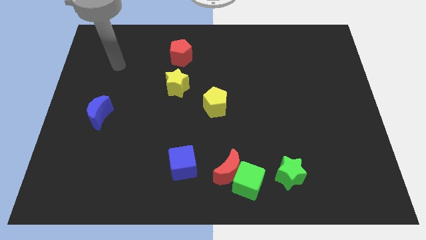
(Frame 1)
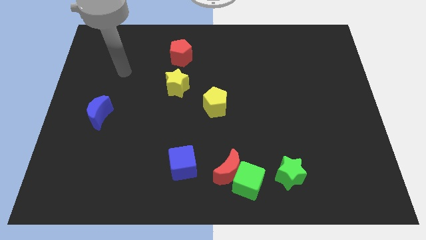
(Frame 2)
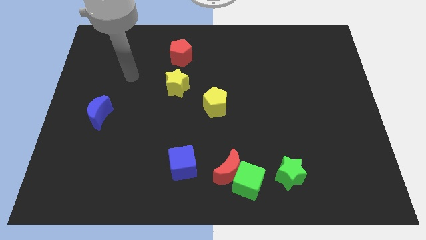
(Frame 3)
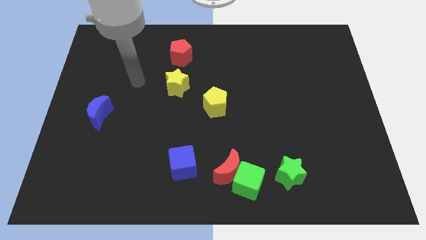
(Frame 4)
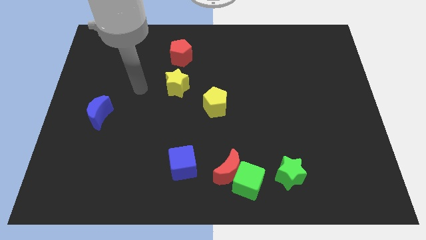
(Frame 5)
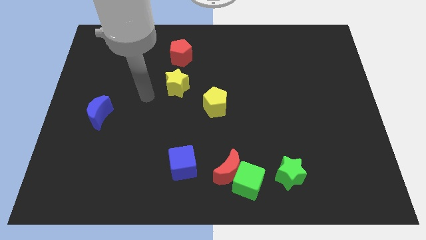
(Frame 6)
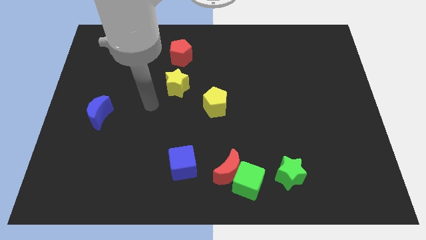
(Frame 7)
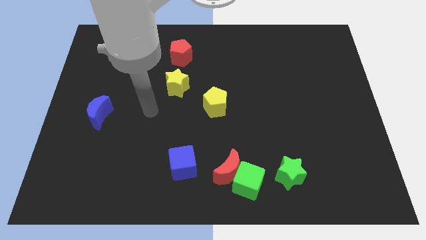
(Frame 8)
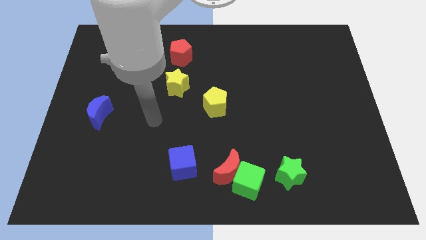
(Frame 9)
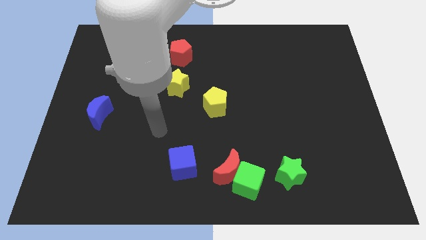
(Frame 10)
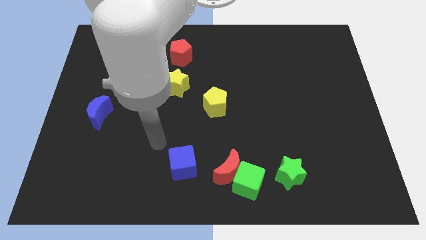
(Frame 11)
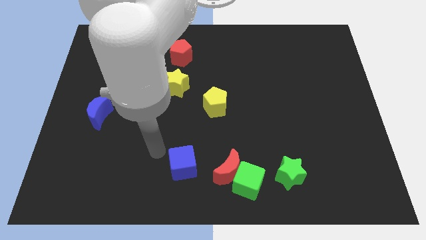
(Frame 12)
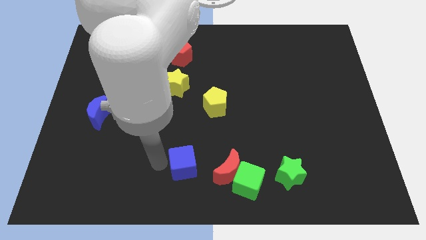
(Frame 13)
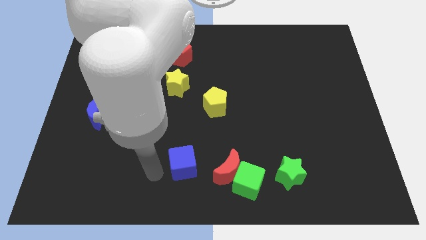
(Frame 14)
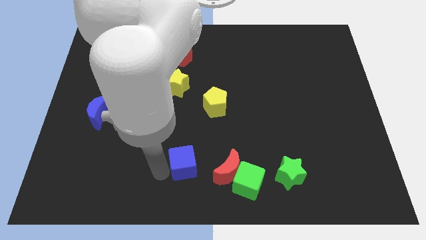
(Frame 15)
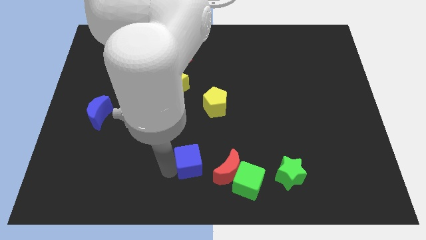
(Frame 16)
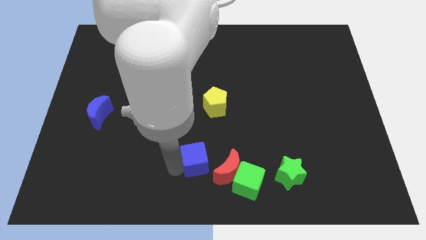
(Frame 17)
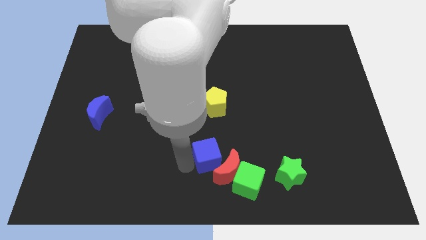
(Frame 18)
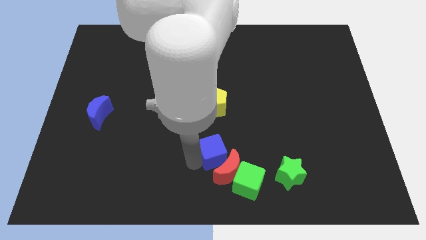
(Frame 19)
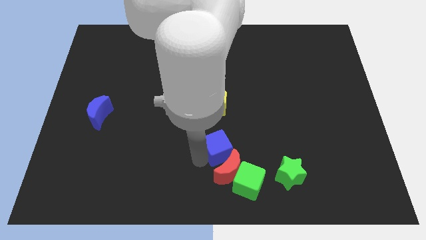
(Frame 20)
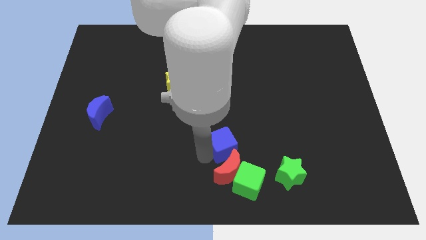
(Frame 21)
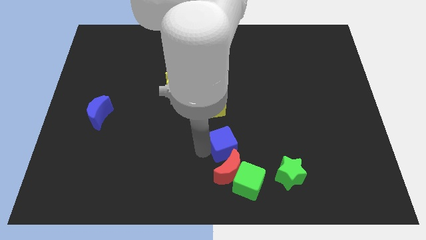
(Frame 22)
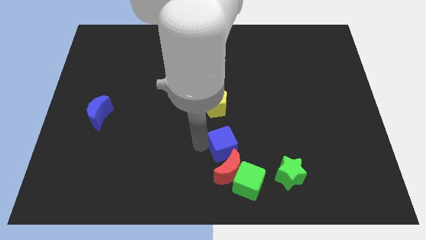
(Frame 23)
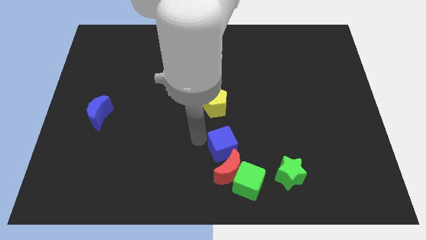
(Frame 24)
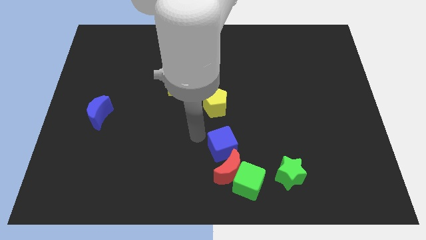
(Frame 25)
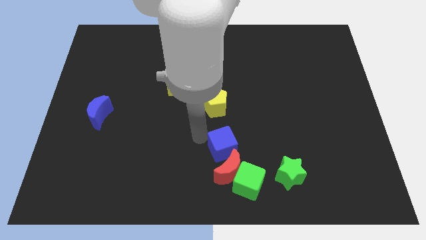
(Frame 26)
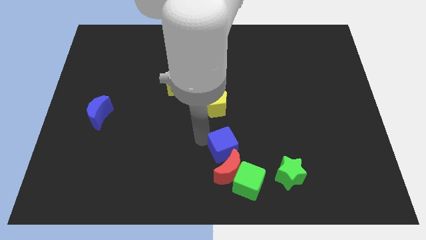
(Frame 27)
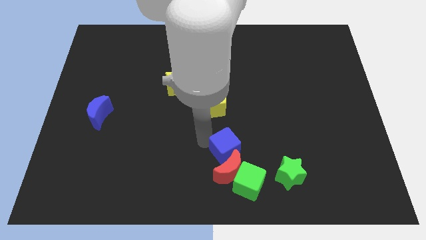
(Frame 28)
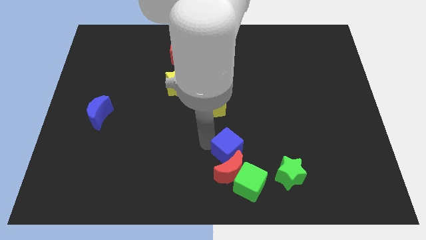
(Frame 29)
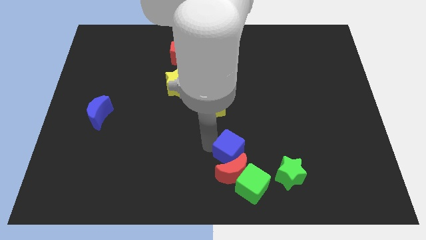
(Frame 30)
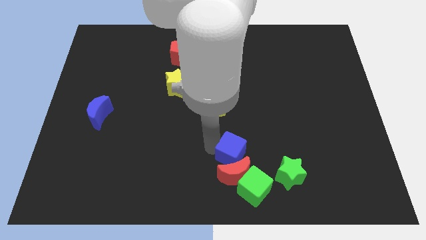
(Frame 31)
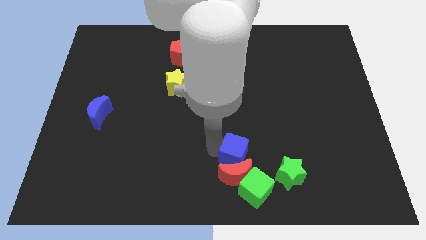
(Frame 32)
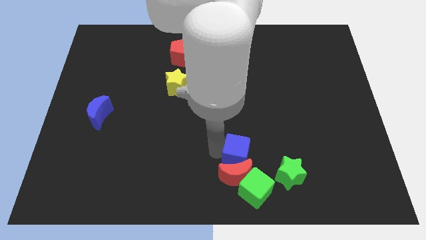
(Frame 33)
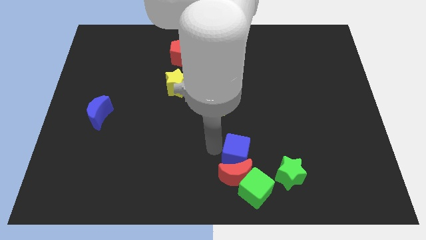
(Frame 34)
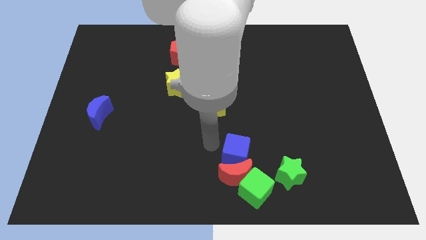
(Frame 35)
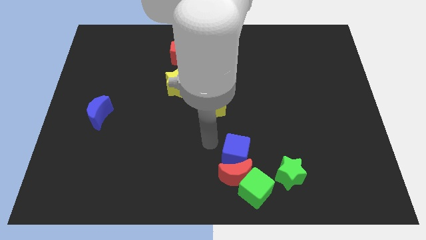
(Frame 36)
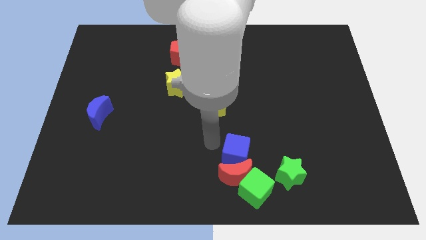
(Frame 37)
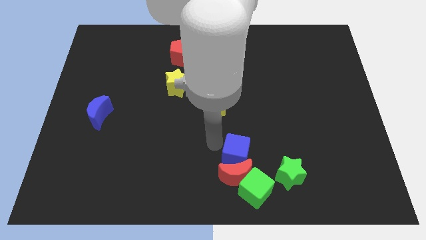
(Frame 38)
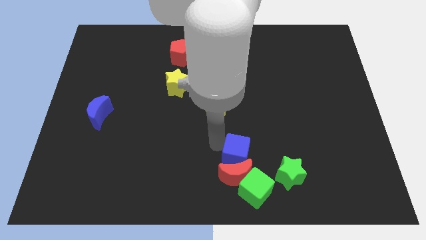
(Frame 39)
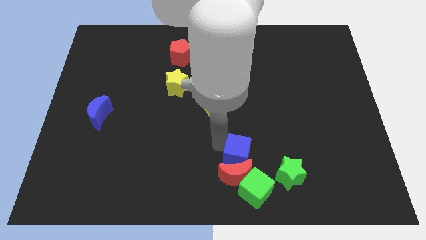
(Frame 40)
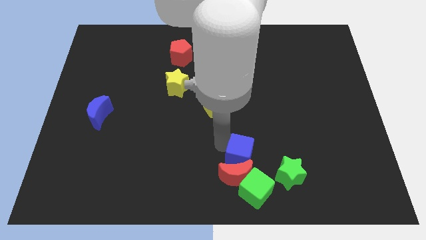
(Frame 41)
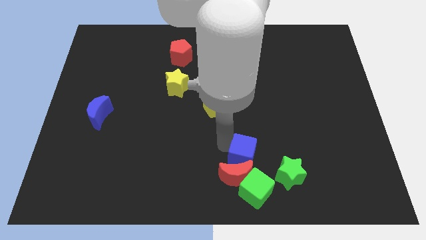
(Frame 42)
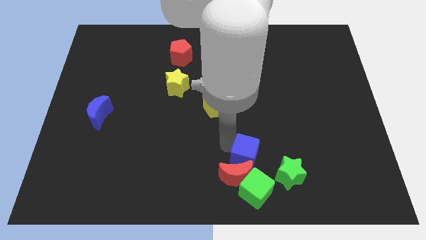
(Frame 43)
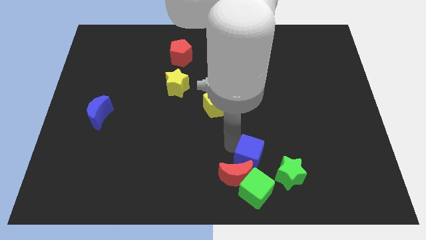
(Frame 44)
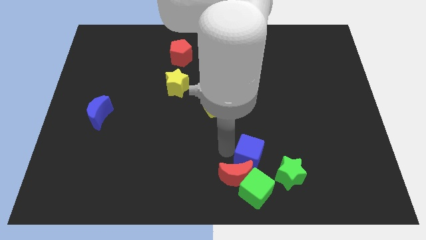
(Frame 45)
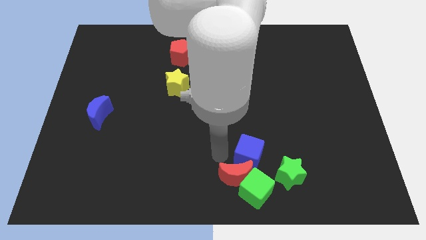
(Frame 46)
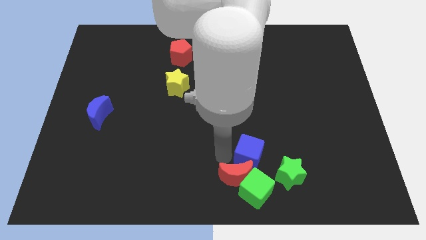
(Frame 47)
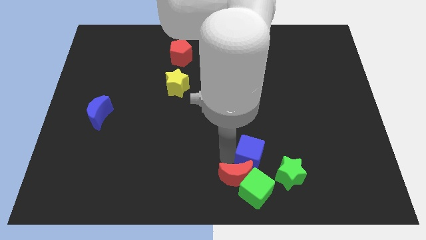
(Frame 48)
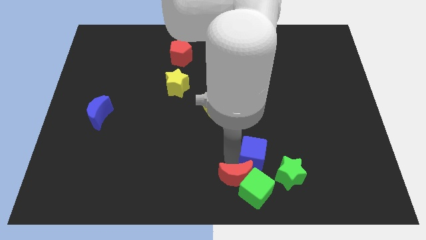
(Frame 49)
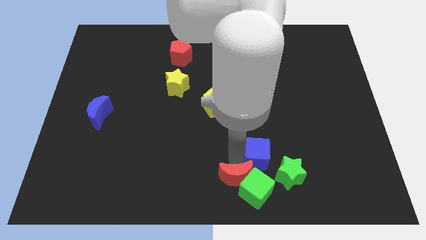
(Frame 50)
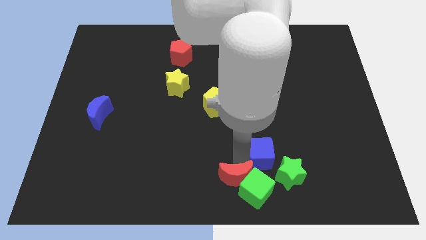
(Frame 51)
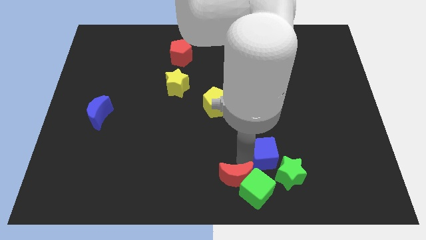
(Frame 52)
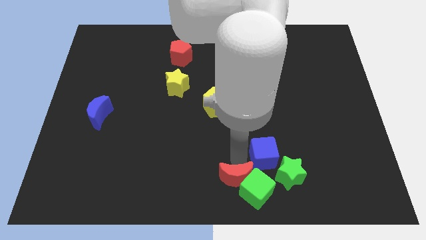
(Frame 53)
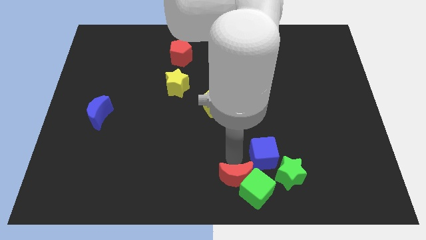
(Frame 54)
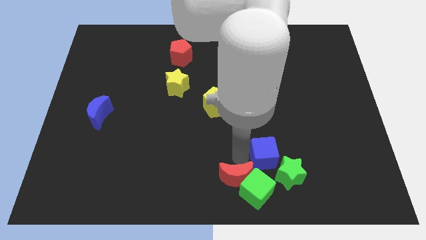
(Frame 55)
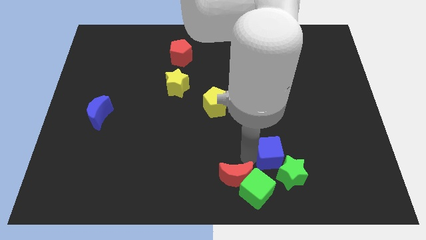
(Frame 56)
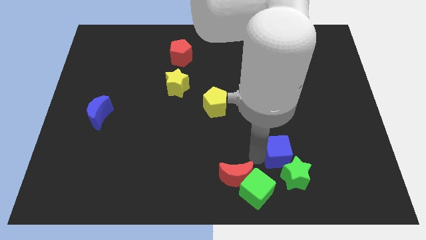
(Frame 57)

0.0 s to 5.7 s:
push the blue cube right

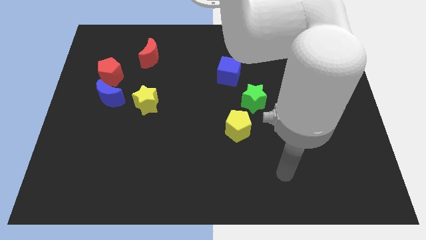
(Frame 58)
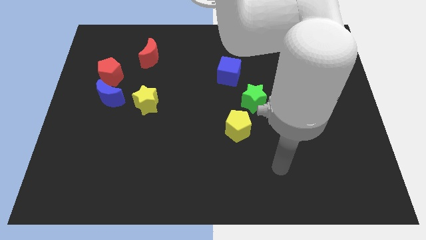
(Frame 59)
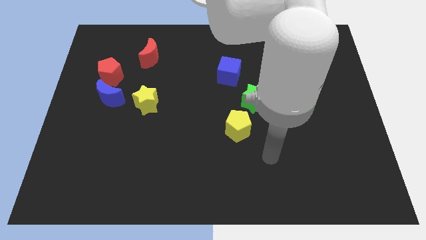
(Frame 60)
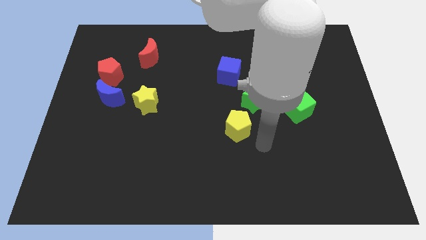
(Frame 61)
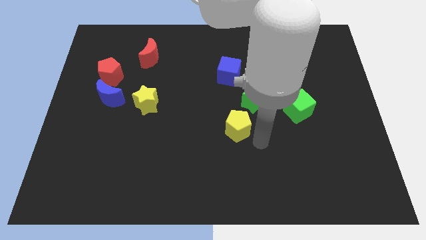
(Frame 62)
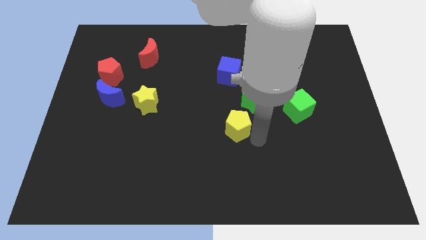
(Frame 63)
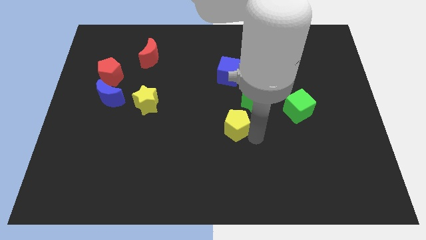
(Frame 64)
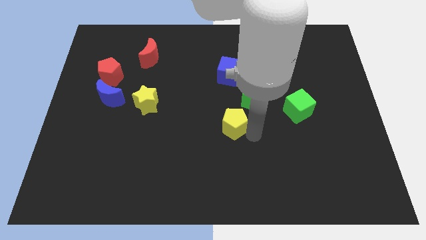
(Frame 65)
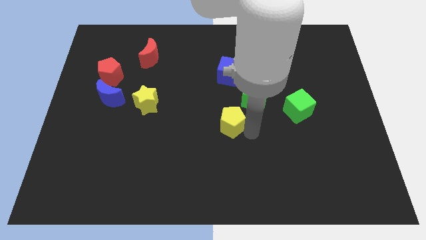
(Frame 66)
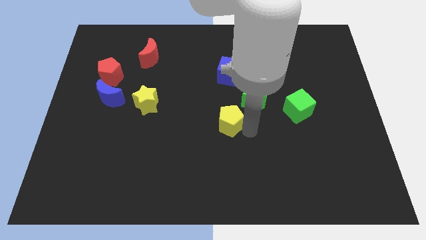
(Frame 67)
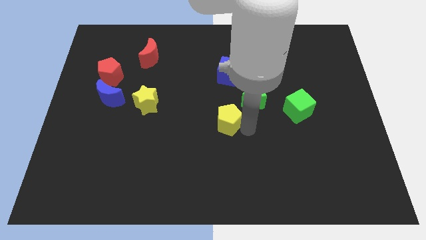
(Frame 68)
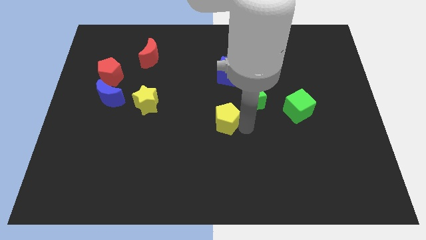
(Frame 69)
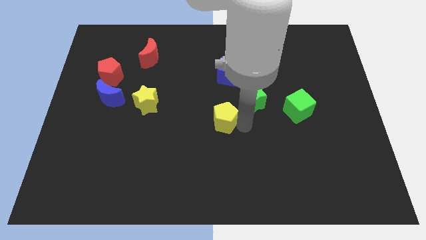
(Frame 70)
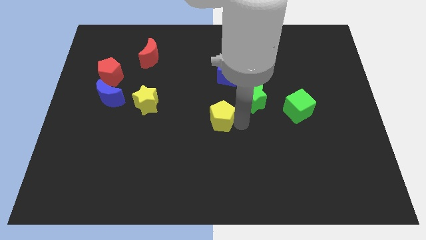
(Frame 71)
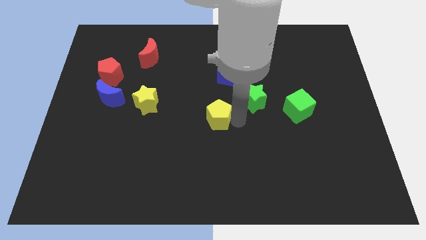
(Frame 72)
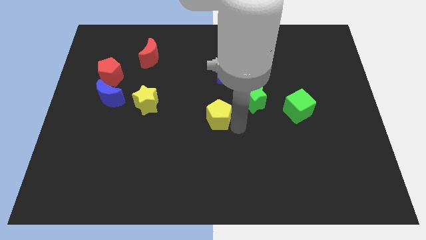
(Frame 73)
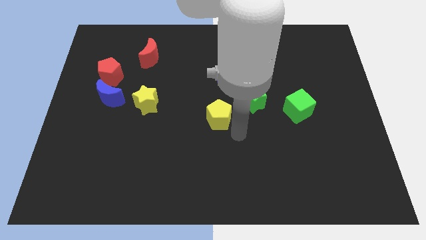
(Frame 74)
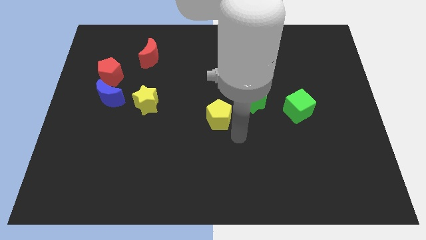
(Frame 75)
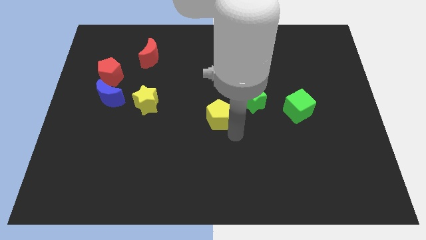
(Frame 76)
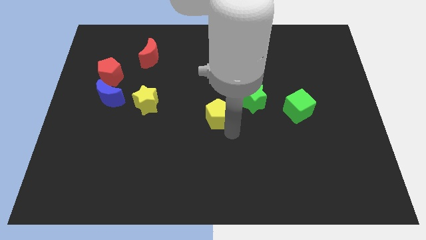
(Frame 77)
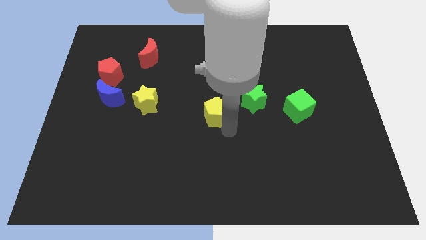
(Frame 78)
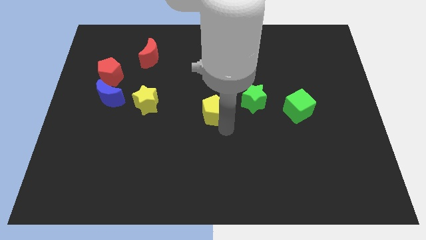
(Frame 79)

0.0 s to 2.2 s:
slide the yellow pentagon upwards and then left a bit
